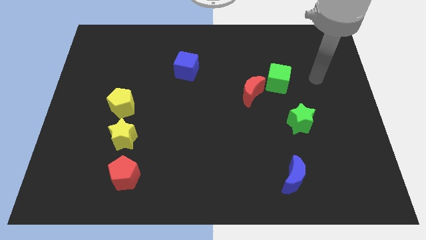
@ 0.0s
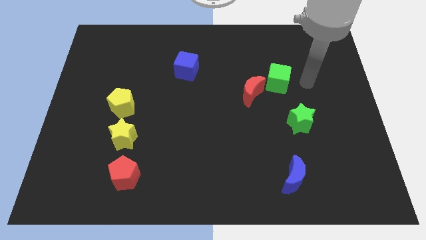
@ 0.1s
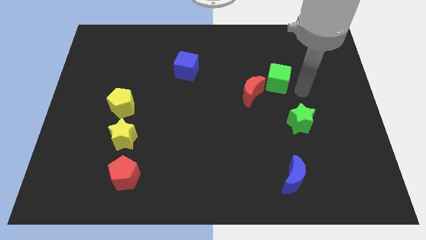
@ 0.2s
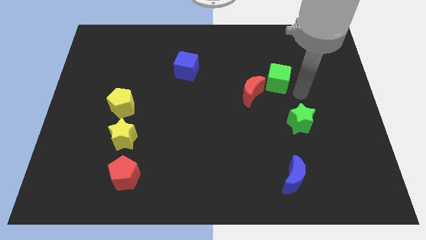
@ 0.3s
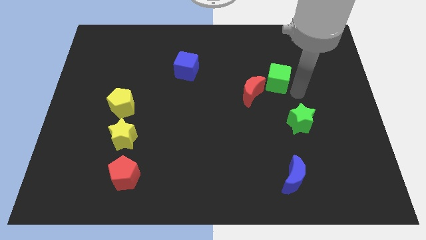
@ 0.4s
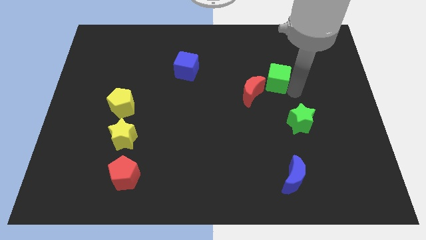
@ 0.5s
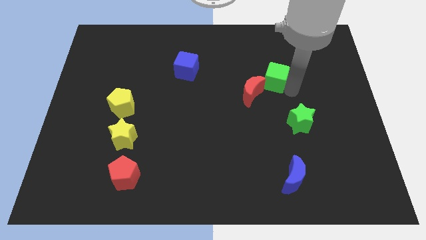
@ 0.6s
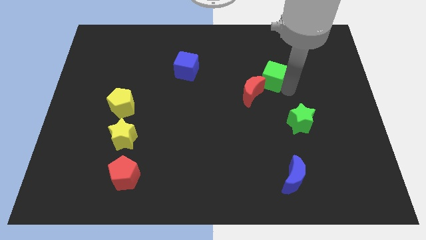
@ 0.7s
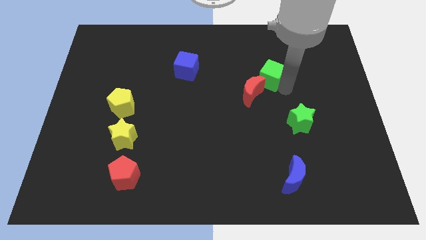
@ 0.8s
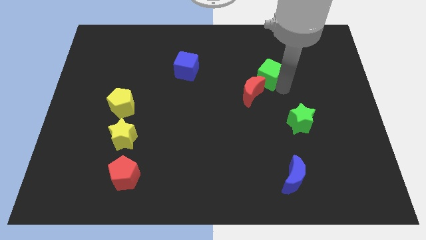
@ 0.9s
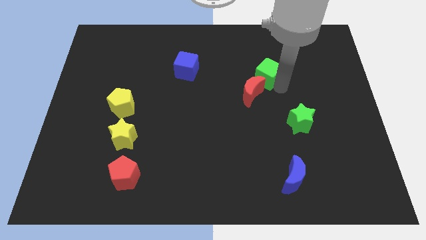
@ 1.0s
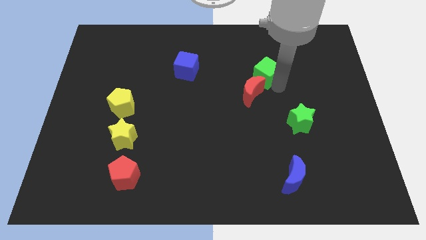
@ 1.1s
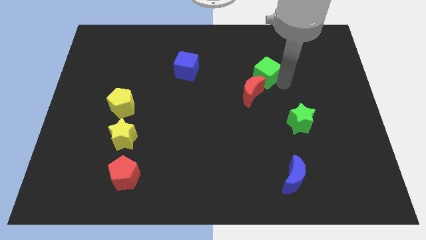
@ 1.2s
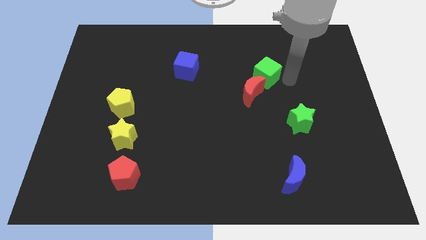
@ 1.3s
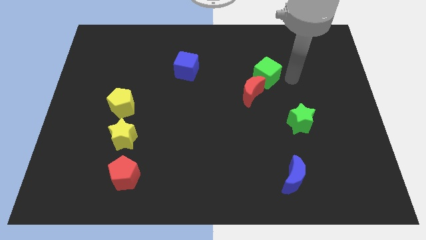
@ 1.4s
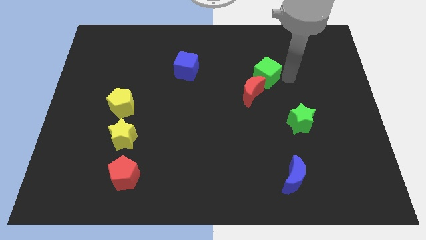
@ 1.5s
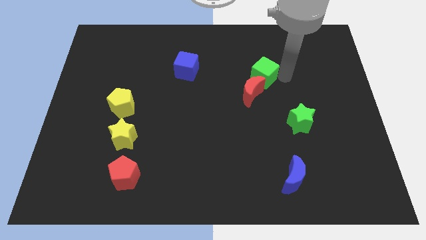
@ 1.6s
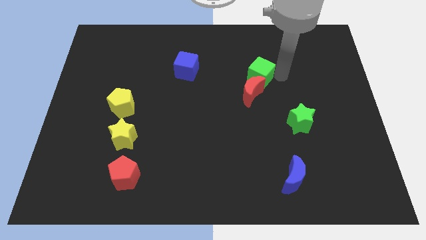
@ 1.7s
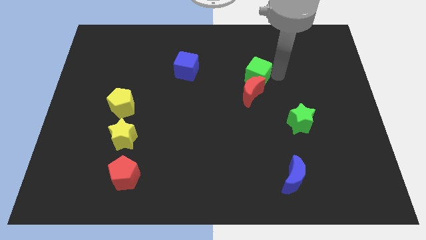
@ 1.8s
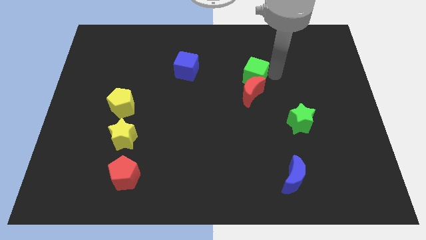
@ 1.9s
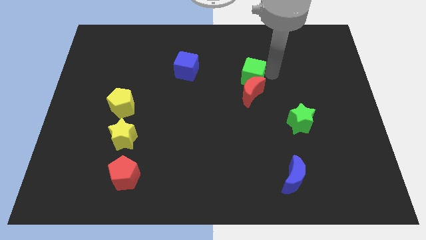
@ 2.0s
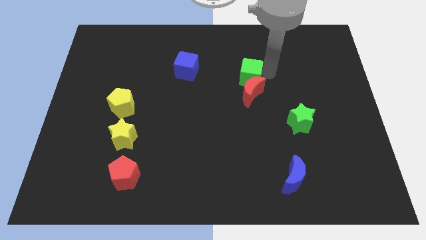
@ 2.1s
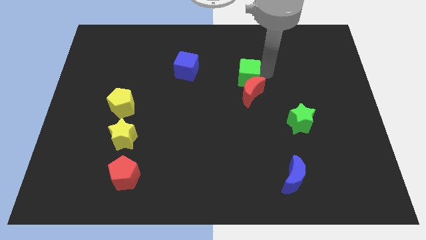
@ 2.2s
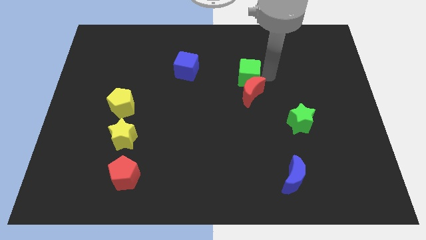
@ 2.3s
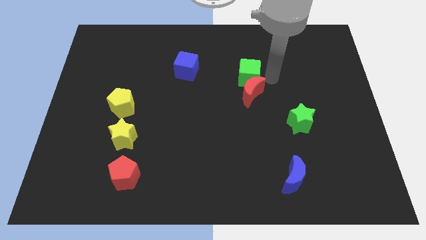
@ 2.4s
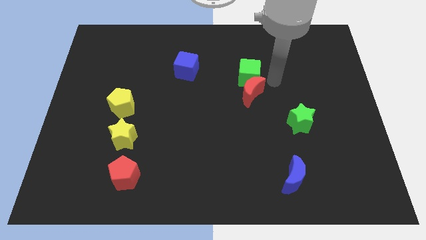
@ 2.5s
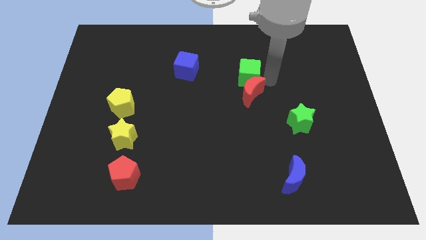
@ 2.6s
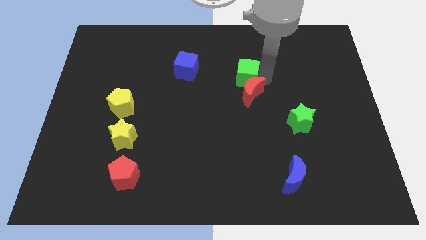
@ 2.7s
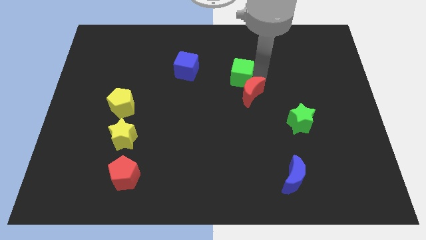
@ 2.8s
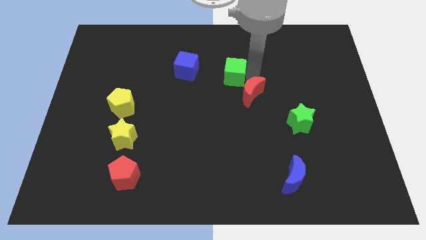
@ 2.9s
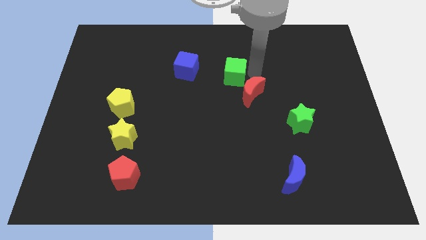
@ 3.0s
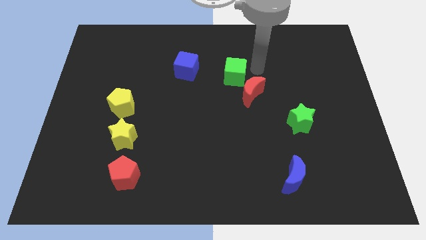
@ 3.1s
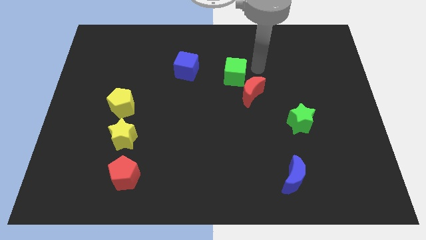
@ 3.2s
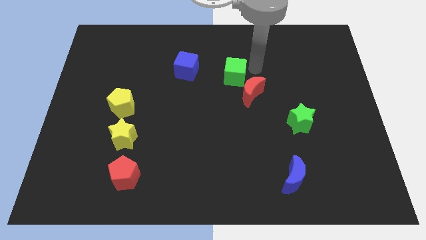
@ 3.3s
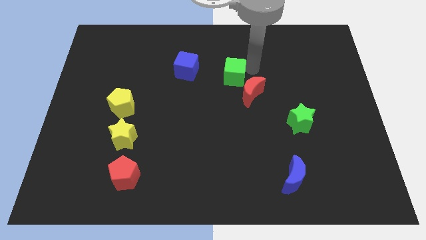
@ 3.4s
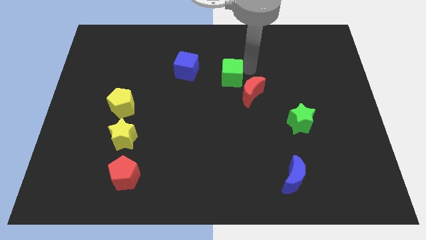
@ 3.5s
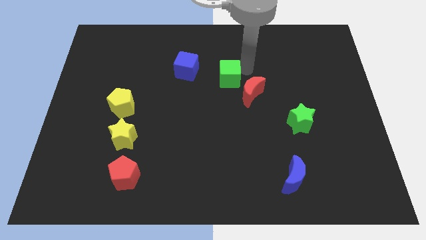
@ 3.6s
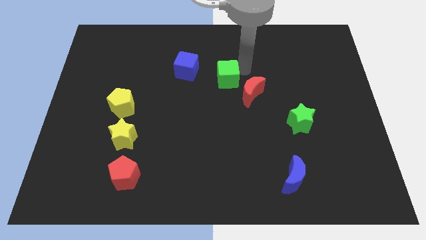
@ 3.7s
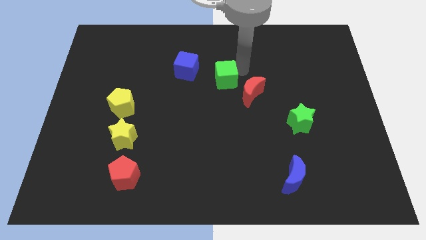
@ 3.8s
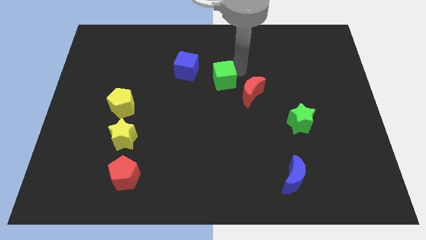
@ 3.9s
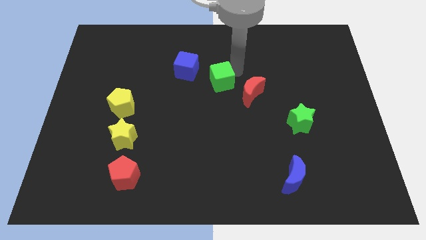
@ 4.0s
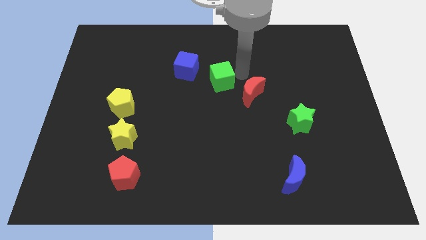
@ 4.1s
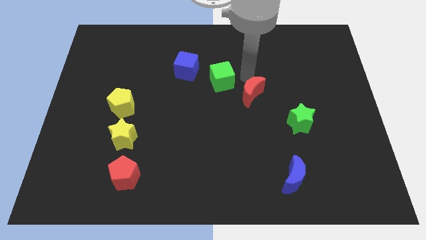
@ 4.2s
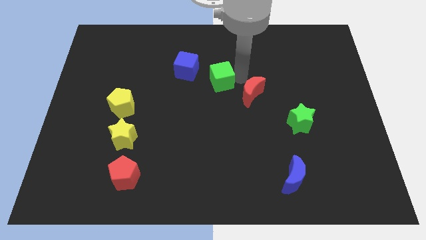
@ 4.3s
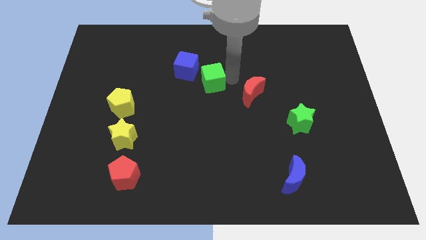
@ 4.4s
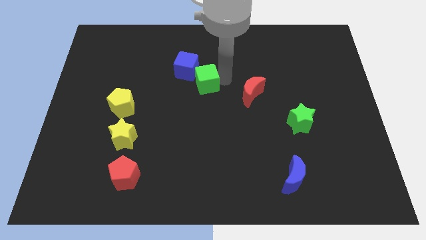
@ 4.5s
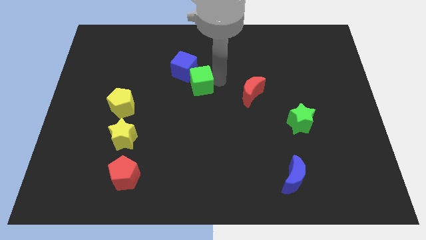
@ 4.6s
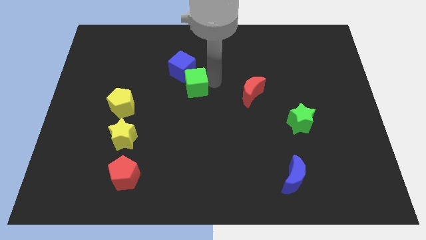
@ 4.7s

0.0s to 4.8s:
push the green cube left

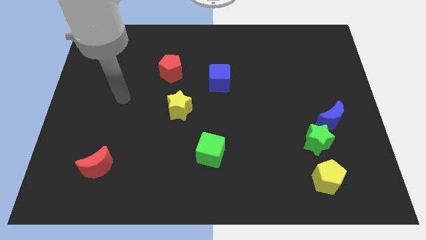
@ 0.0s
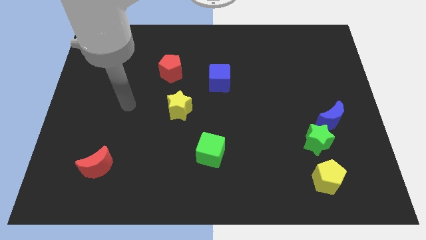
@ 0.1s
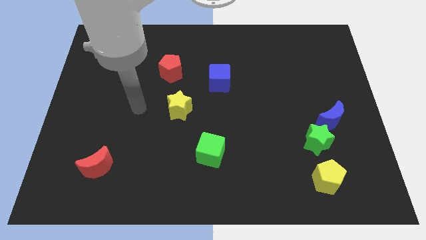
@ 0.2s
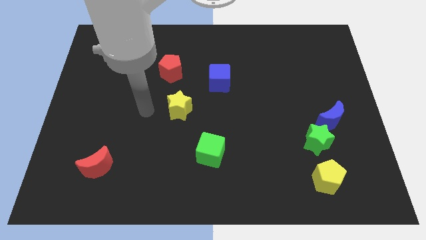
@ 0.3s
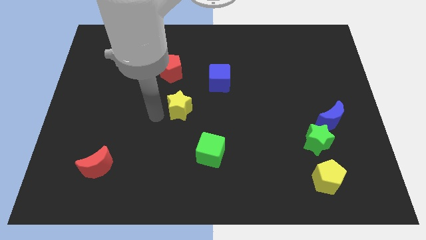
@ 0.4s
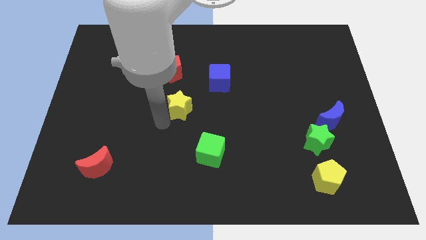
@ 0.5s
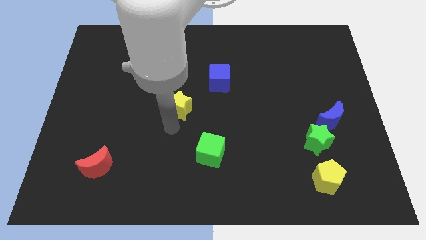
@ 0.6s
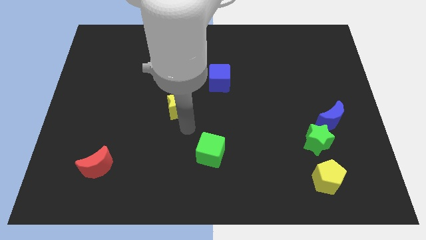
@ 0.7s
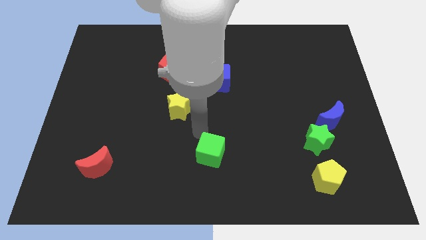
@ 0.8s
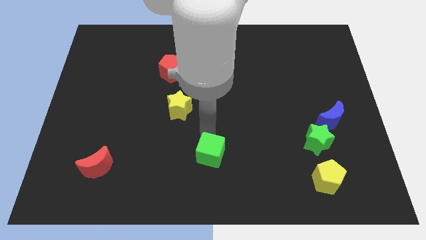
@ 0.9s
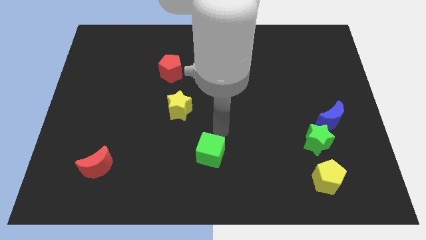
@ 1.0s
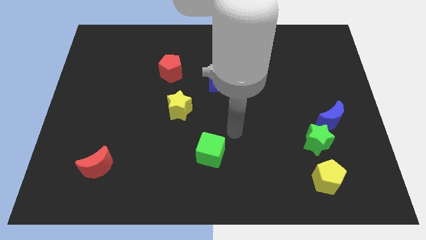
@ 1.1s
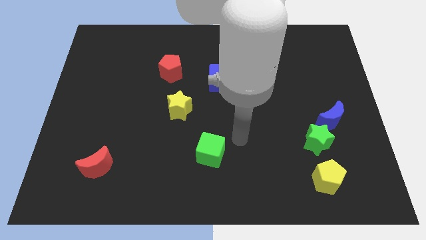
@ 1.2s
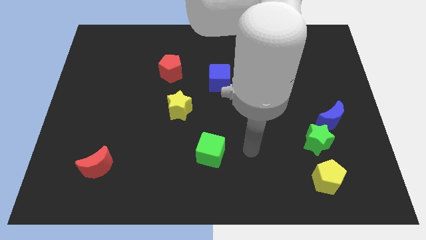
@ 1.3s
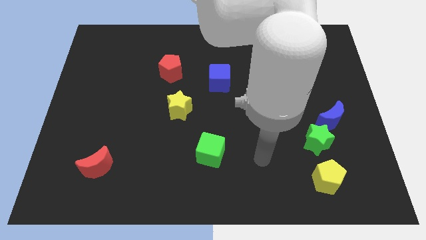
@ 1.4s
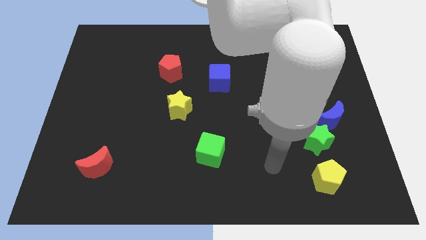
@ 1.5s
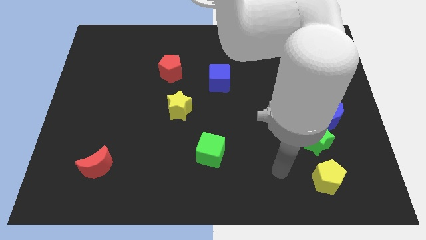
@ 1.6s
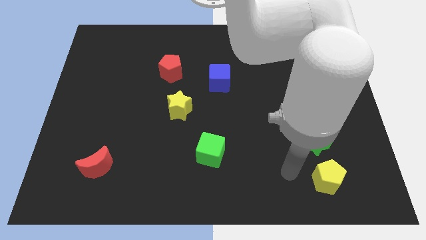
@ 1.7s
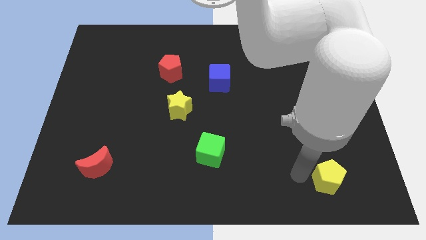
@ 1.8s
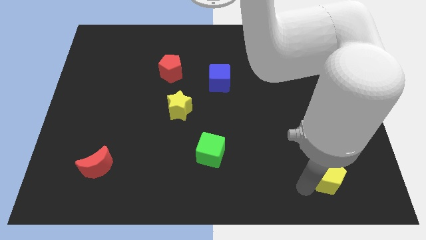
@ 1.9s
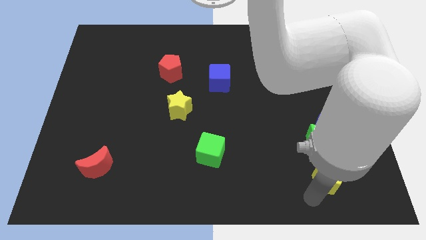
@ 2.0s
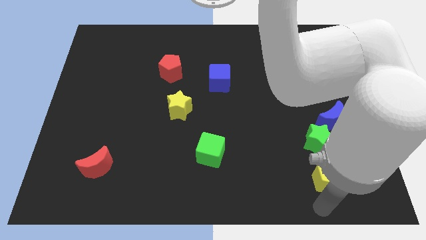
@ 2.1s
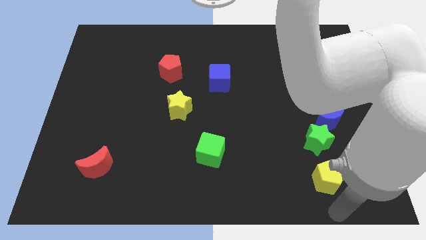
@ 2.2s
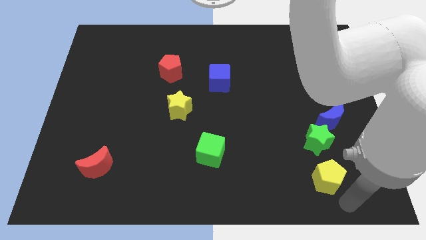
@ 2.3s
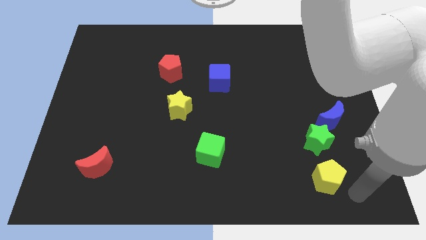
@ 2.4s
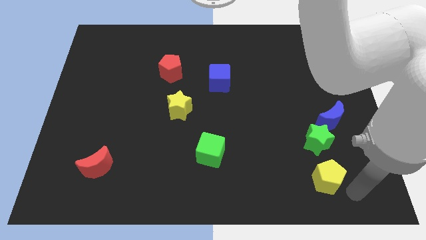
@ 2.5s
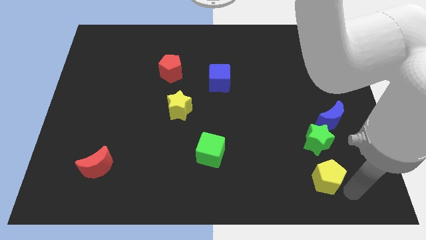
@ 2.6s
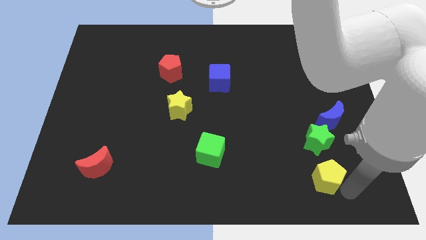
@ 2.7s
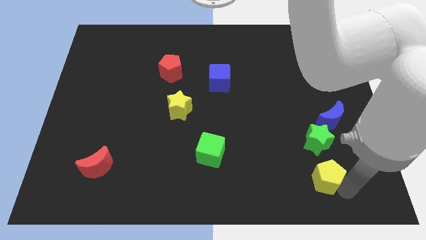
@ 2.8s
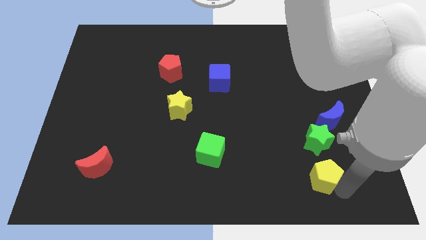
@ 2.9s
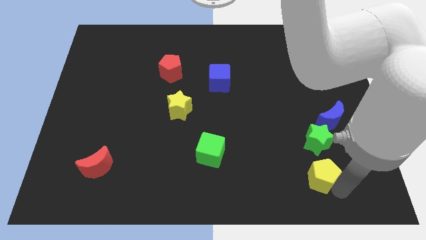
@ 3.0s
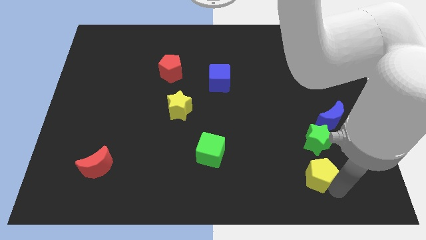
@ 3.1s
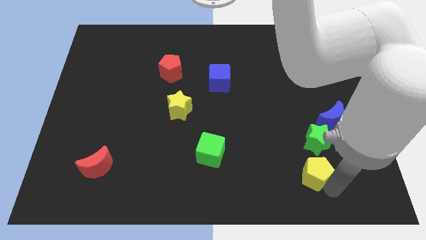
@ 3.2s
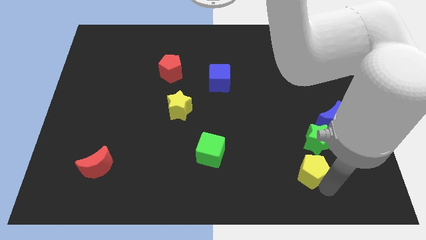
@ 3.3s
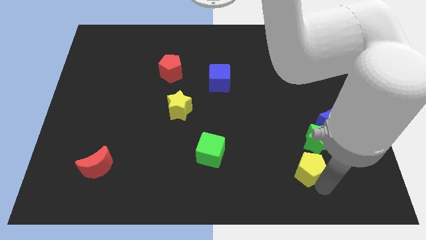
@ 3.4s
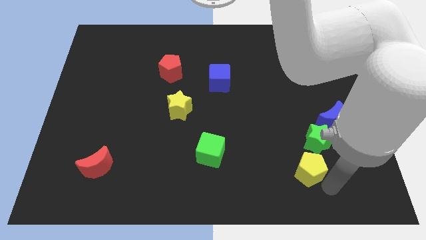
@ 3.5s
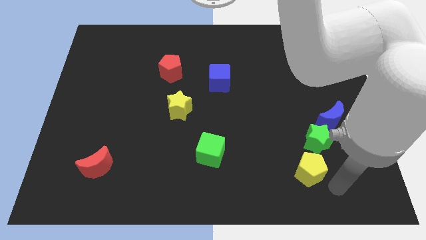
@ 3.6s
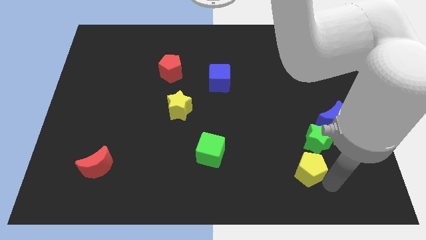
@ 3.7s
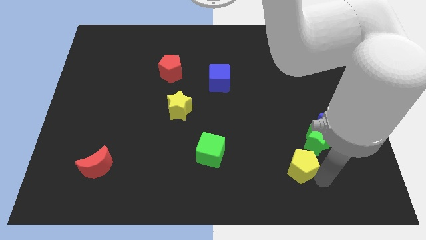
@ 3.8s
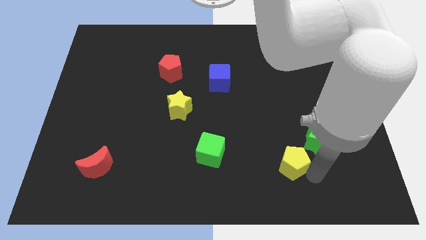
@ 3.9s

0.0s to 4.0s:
slide the yellow pentagon a bit up and then to the left
